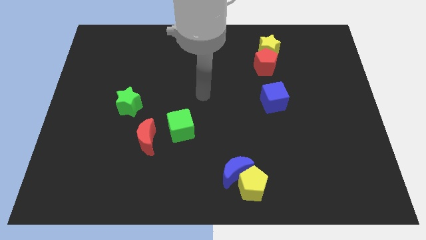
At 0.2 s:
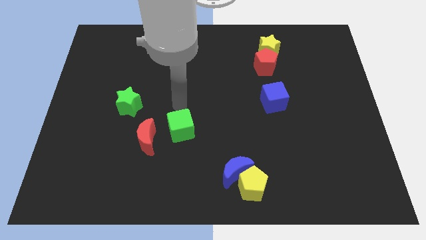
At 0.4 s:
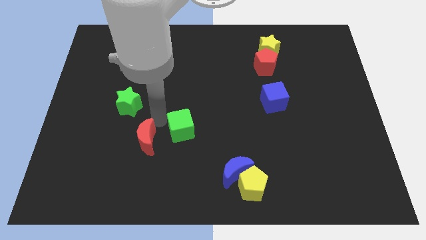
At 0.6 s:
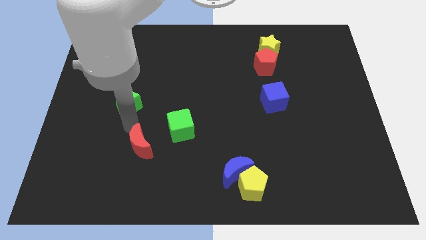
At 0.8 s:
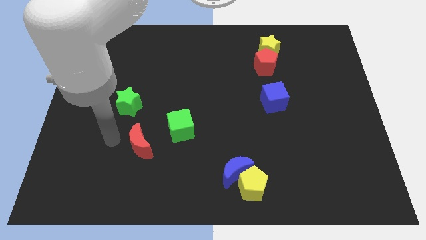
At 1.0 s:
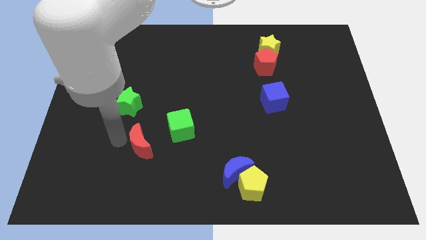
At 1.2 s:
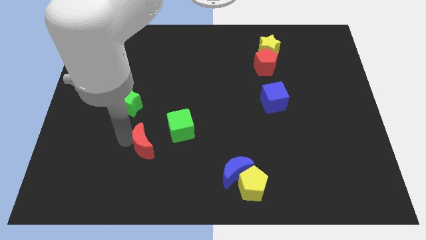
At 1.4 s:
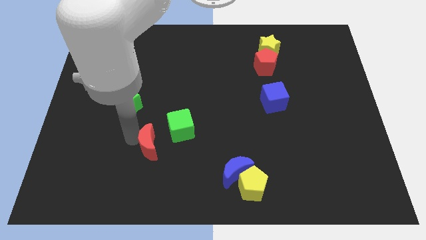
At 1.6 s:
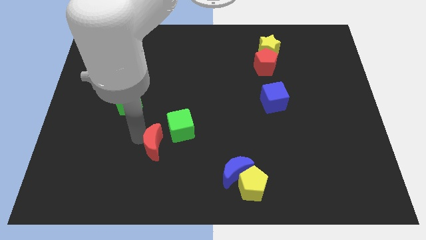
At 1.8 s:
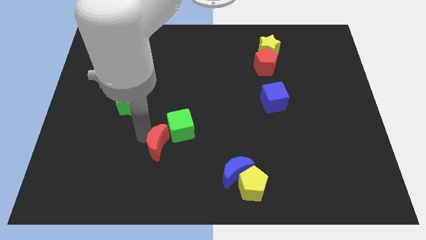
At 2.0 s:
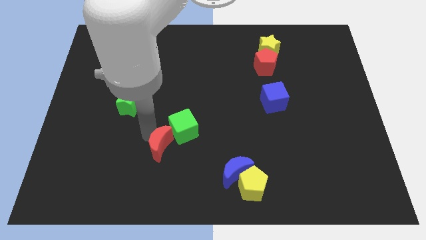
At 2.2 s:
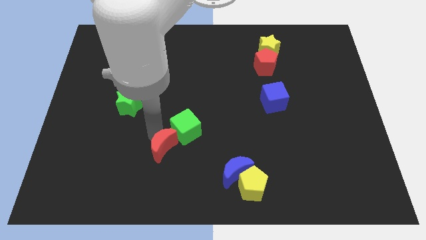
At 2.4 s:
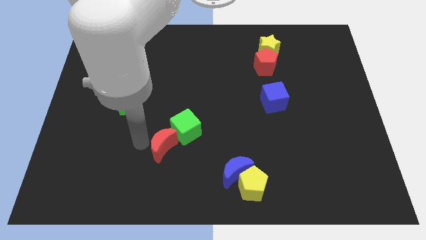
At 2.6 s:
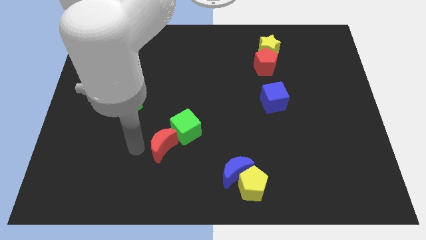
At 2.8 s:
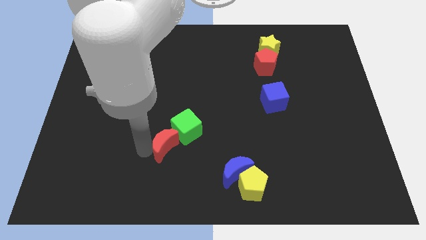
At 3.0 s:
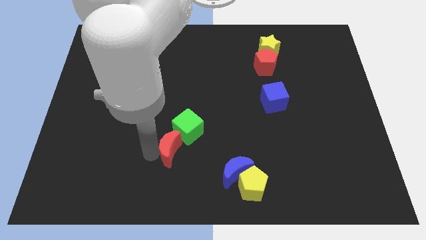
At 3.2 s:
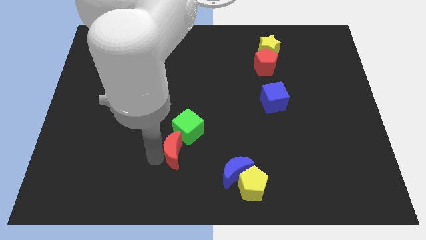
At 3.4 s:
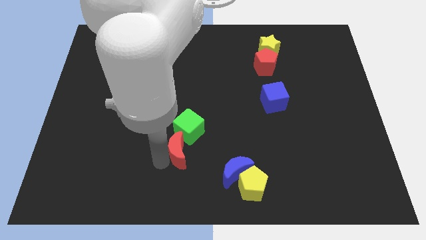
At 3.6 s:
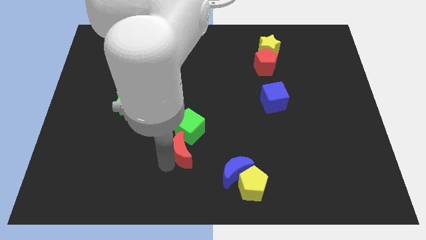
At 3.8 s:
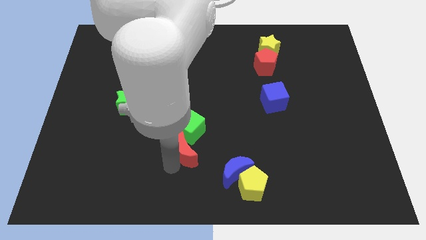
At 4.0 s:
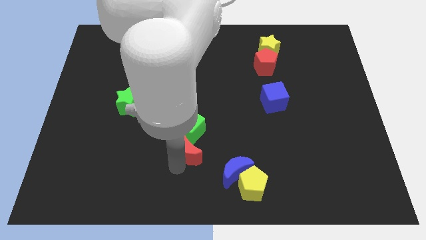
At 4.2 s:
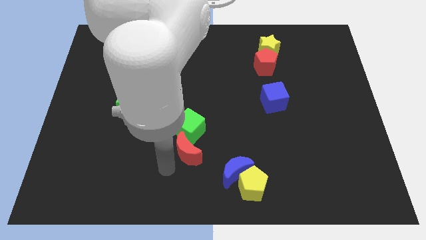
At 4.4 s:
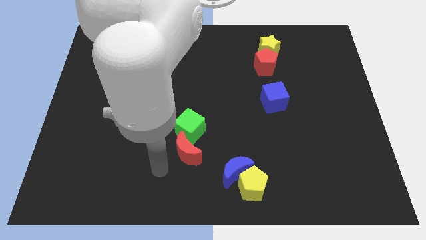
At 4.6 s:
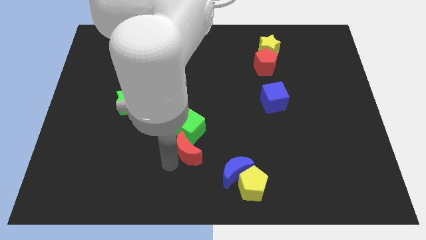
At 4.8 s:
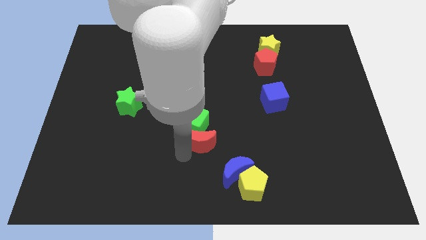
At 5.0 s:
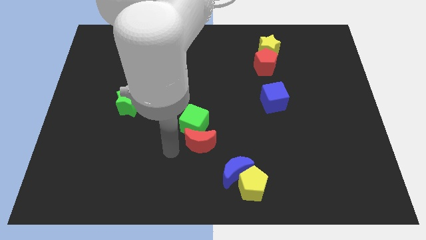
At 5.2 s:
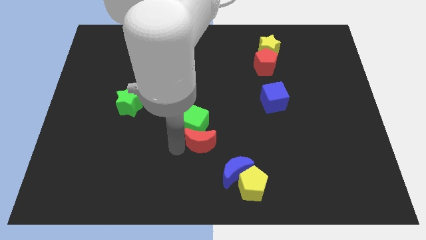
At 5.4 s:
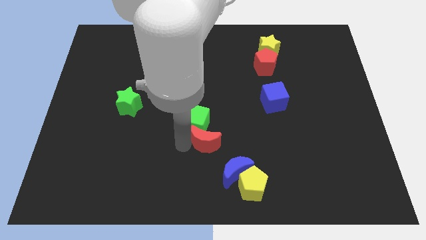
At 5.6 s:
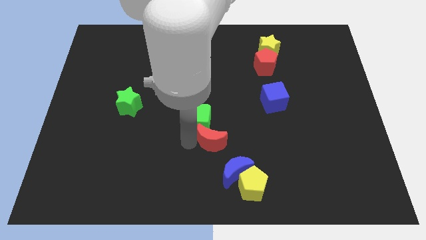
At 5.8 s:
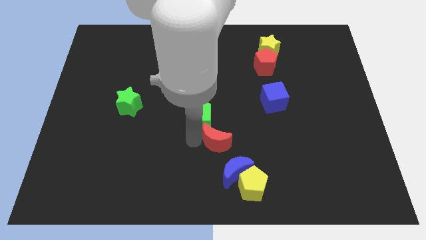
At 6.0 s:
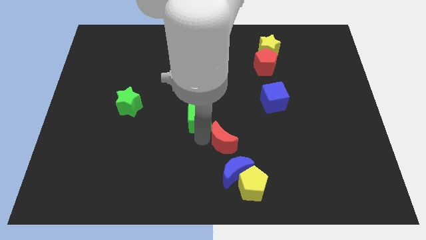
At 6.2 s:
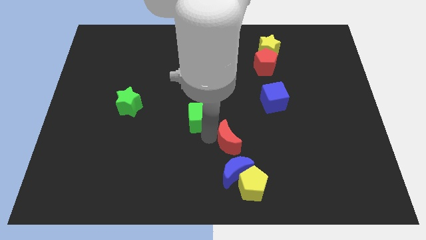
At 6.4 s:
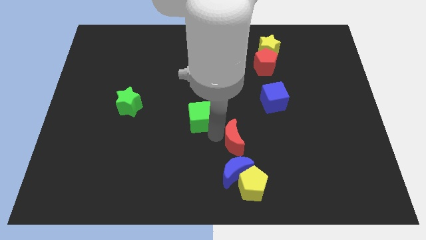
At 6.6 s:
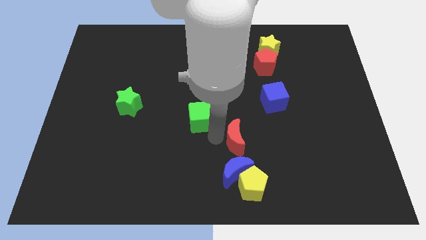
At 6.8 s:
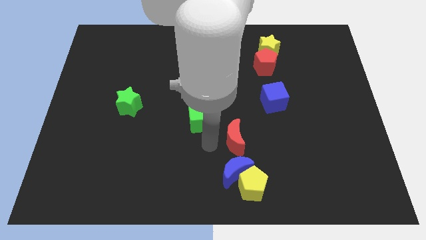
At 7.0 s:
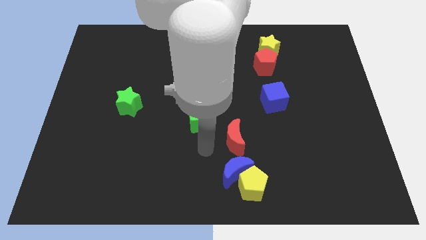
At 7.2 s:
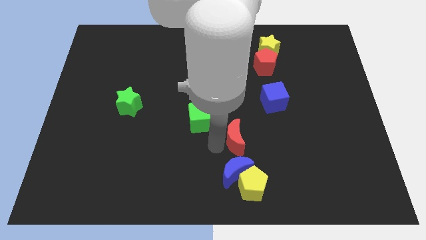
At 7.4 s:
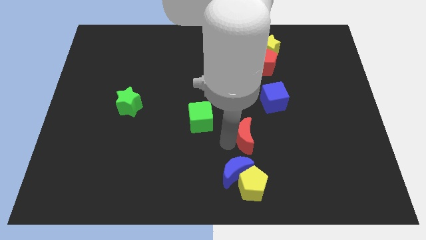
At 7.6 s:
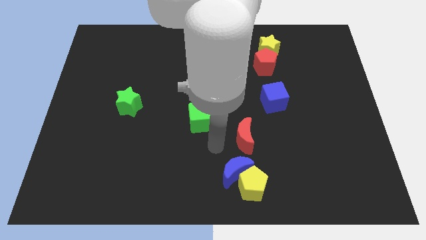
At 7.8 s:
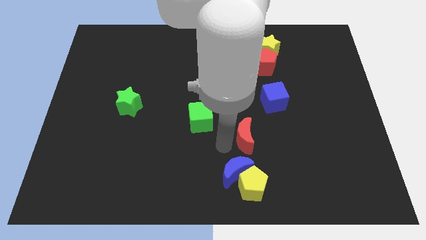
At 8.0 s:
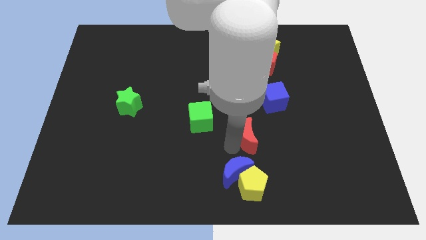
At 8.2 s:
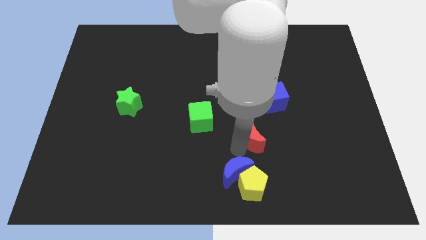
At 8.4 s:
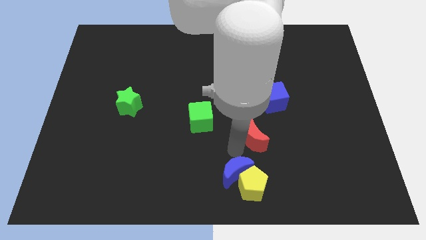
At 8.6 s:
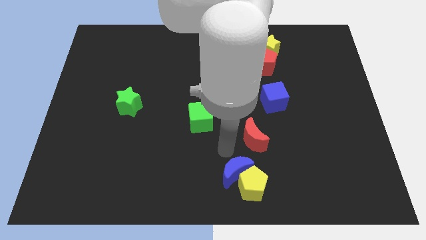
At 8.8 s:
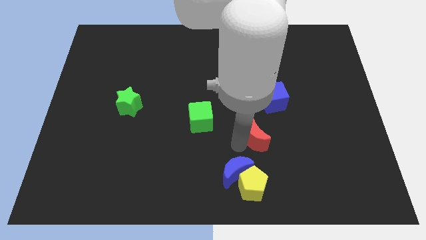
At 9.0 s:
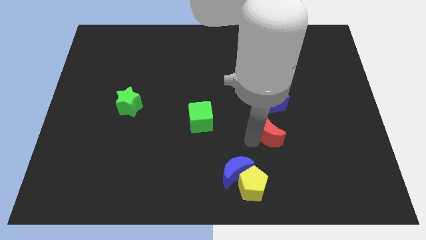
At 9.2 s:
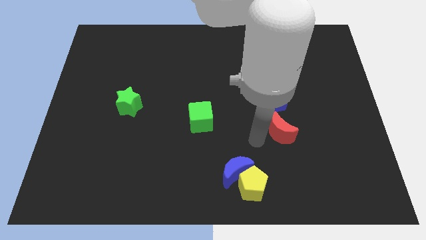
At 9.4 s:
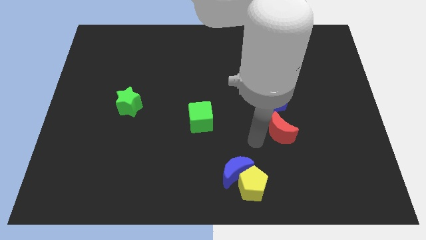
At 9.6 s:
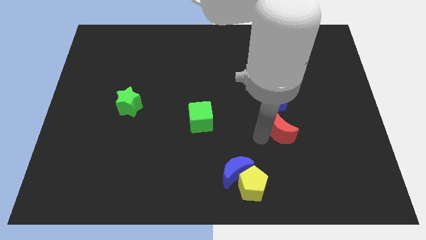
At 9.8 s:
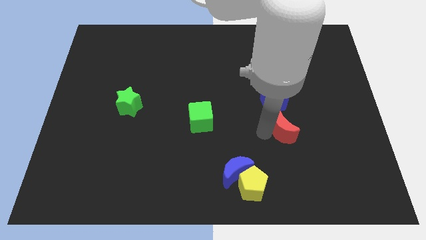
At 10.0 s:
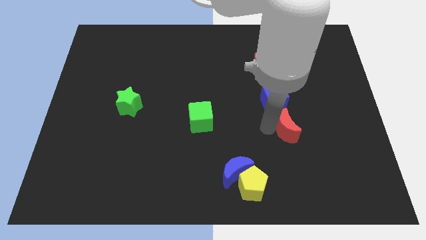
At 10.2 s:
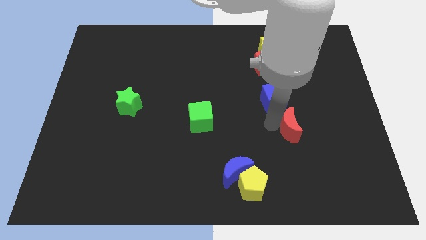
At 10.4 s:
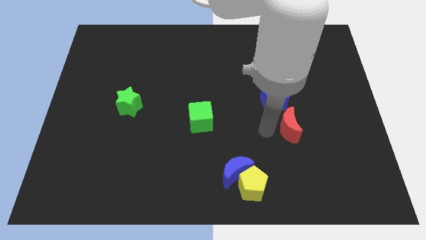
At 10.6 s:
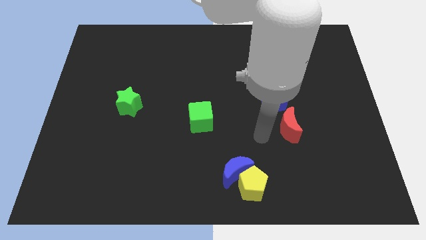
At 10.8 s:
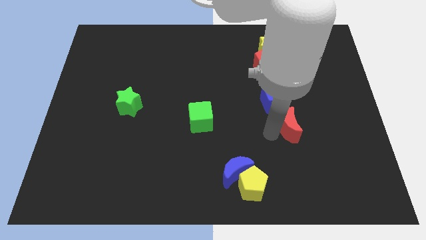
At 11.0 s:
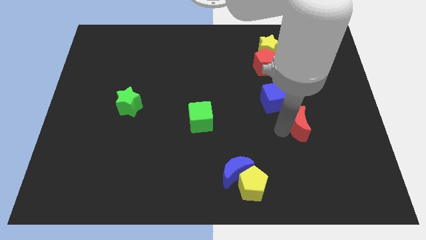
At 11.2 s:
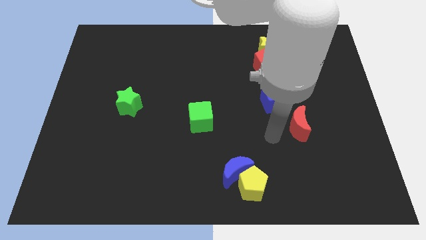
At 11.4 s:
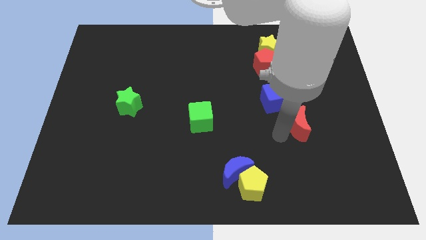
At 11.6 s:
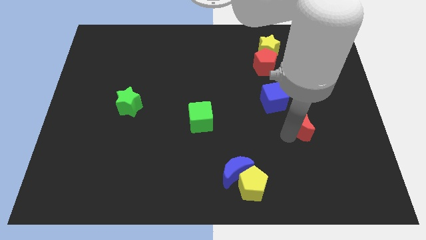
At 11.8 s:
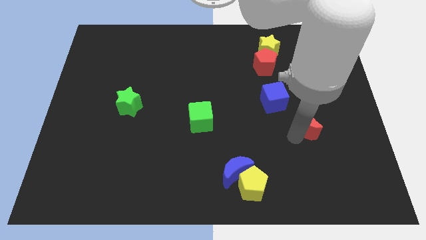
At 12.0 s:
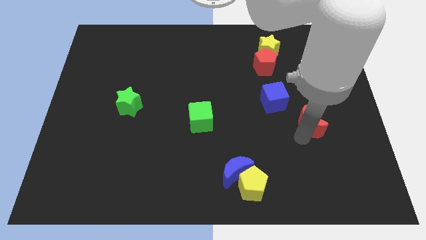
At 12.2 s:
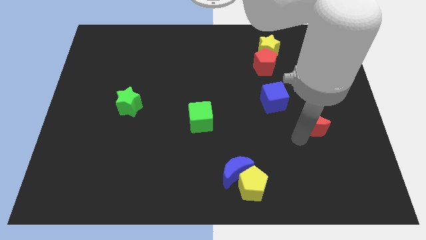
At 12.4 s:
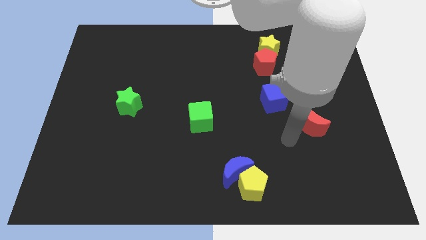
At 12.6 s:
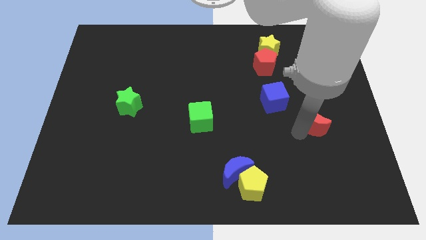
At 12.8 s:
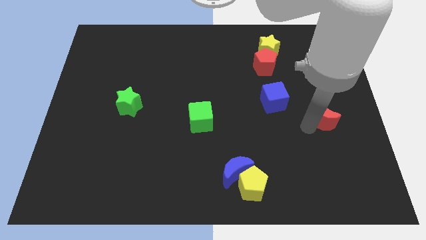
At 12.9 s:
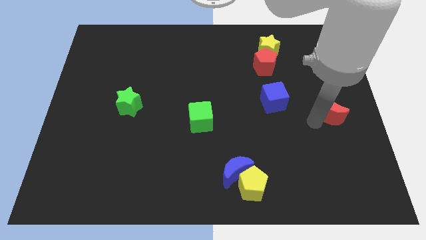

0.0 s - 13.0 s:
slide the red moon to the right side of the board

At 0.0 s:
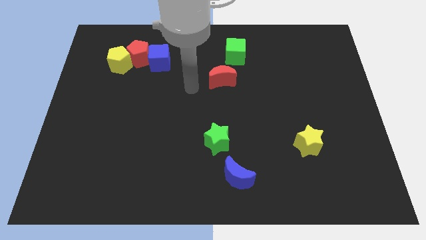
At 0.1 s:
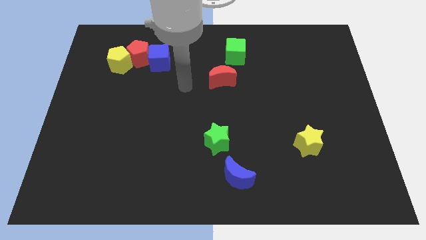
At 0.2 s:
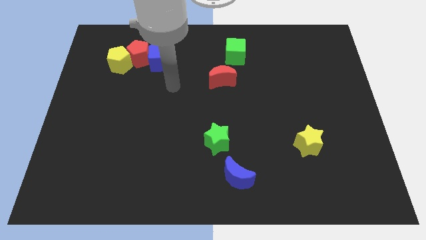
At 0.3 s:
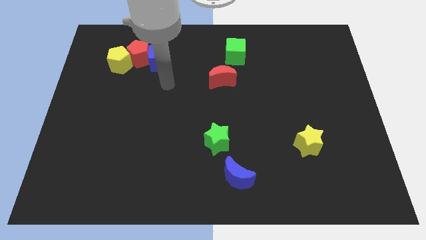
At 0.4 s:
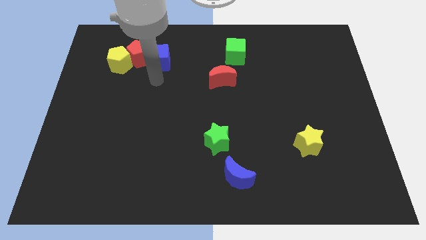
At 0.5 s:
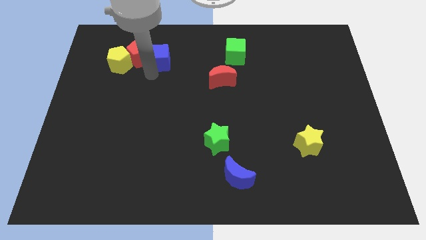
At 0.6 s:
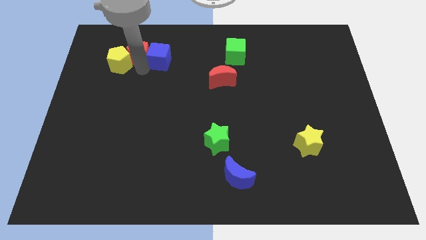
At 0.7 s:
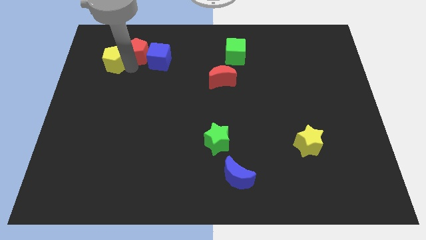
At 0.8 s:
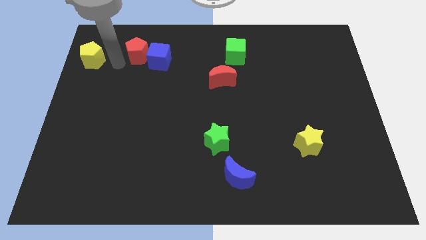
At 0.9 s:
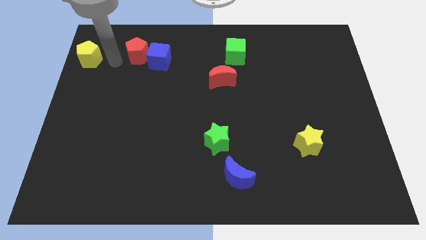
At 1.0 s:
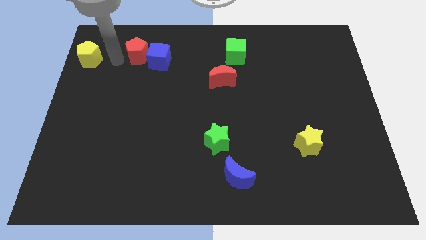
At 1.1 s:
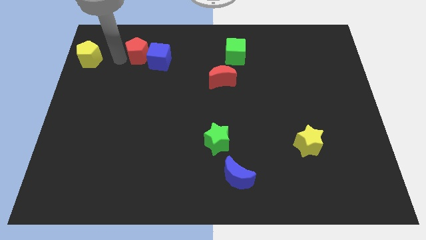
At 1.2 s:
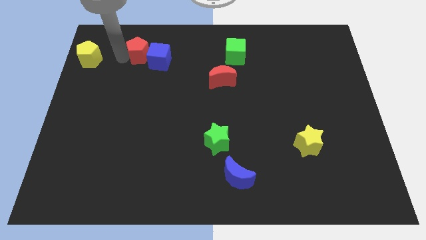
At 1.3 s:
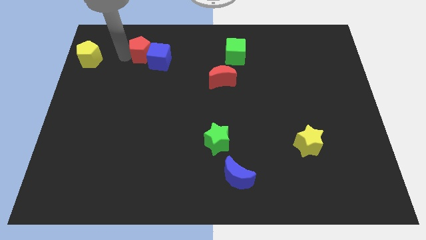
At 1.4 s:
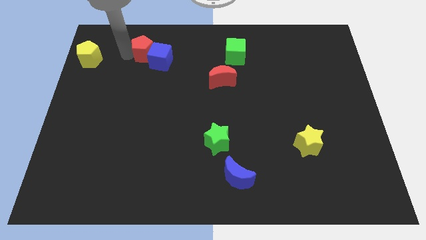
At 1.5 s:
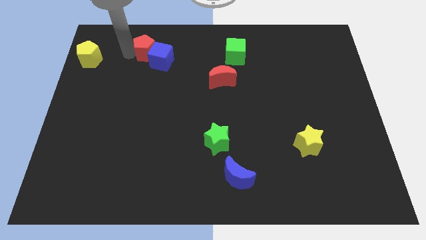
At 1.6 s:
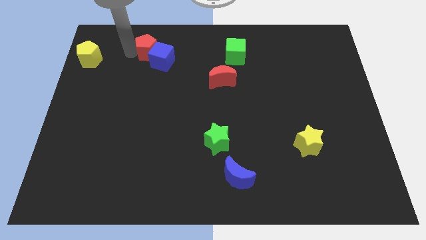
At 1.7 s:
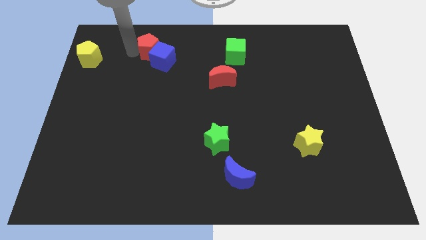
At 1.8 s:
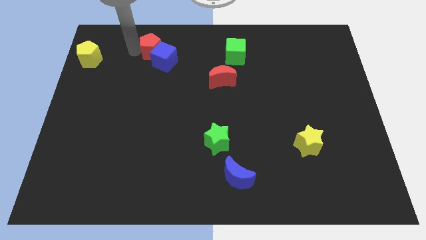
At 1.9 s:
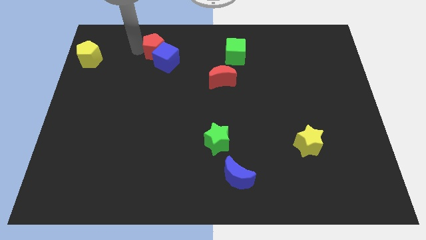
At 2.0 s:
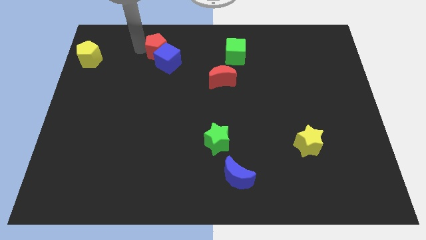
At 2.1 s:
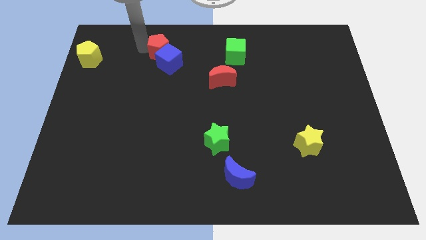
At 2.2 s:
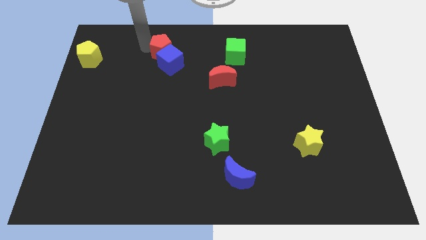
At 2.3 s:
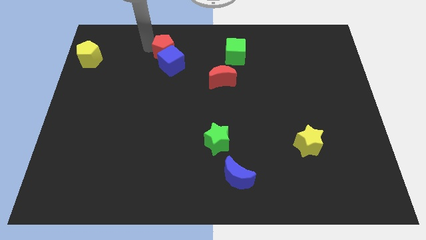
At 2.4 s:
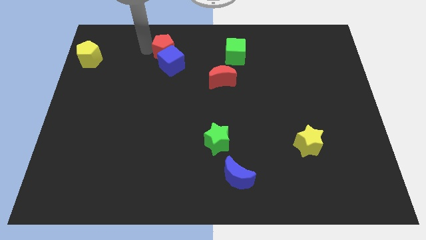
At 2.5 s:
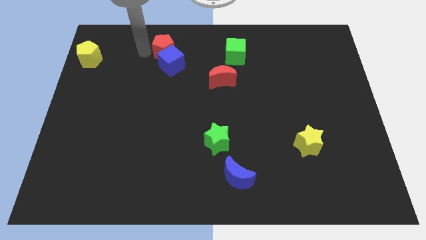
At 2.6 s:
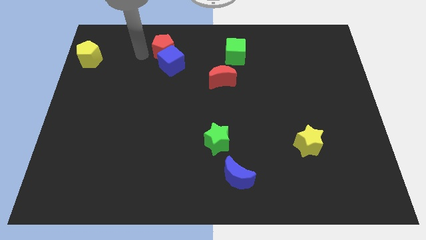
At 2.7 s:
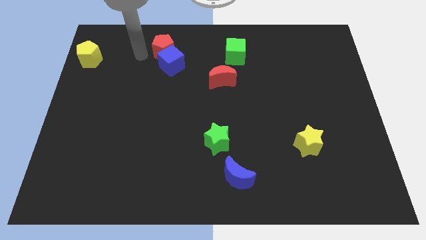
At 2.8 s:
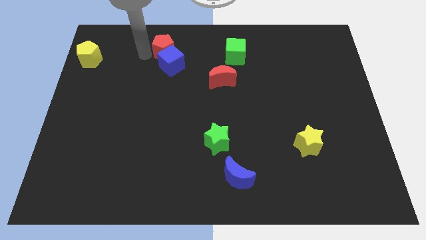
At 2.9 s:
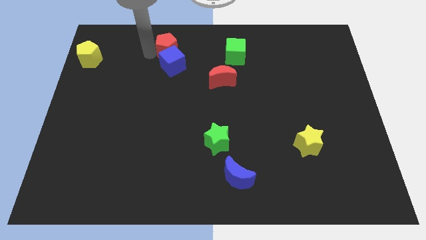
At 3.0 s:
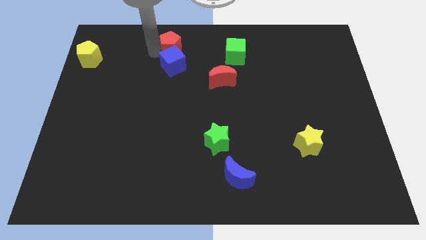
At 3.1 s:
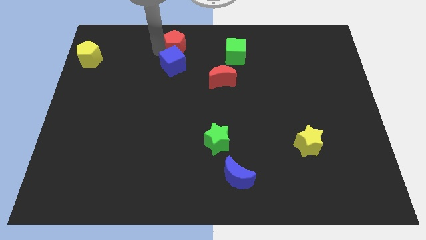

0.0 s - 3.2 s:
push the red pentagon to the top side
